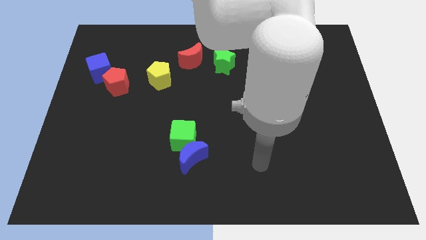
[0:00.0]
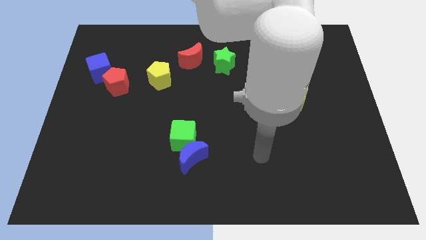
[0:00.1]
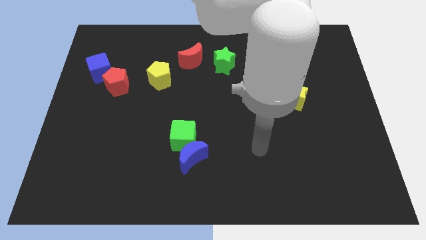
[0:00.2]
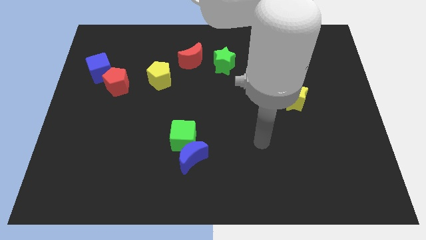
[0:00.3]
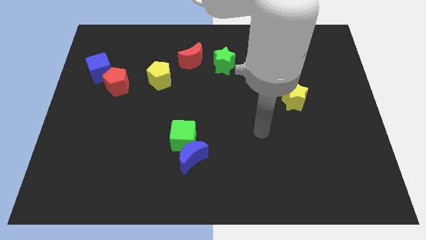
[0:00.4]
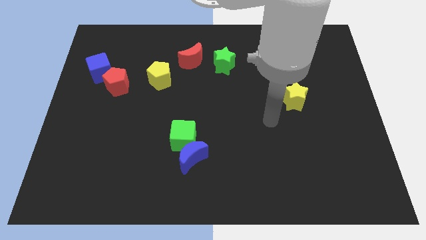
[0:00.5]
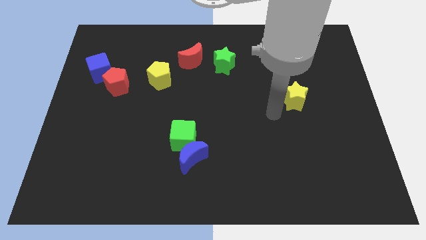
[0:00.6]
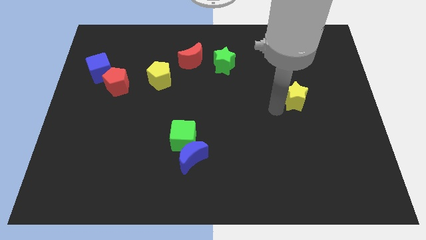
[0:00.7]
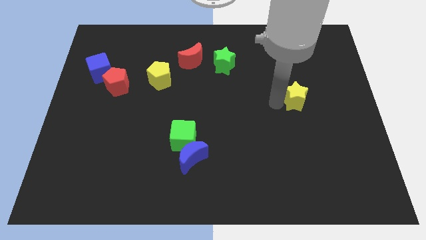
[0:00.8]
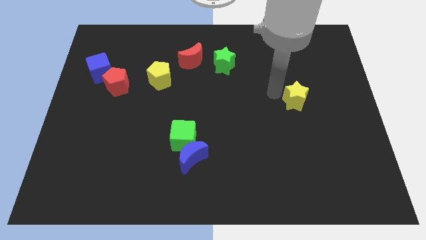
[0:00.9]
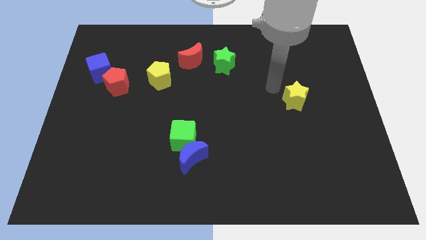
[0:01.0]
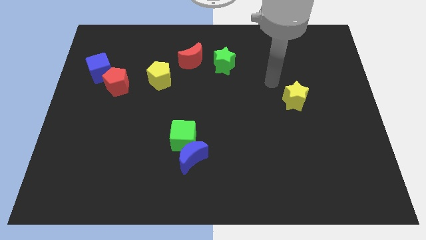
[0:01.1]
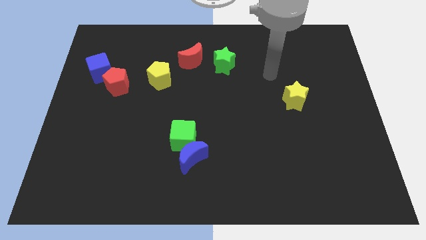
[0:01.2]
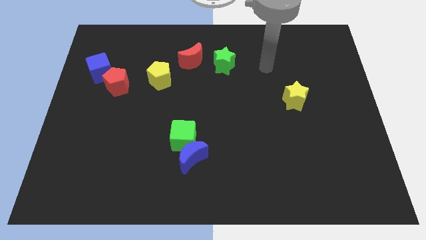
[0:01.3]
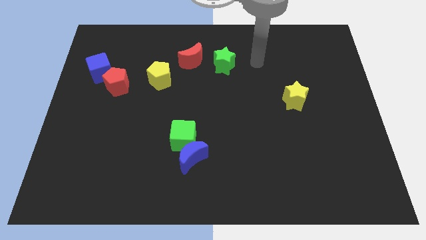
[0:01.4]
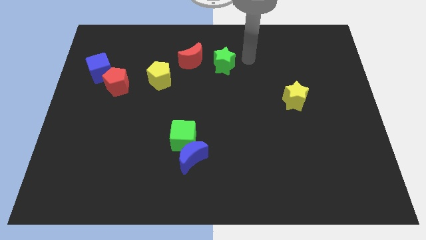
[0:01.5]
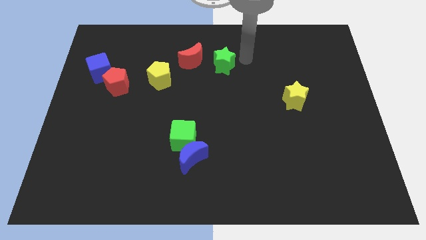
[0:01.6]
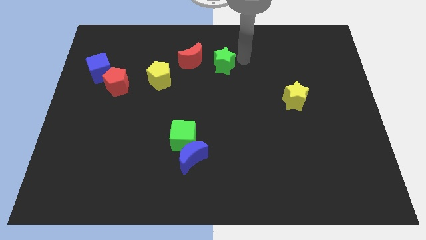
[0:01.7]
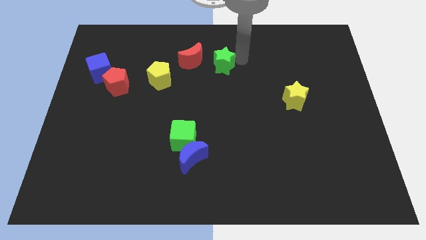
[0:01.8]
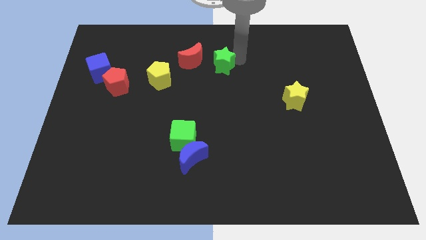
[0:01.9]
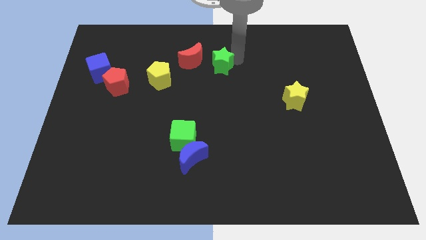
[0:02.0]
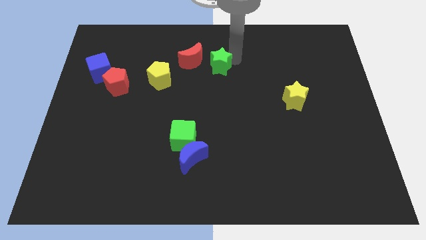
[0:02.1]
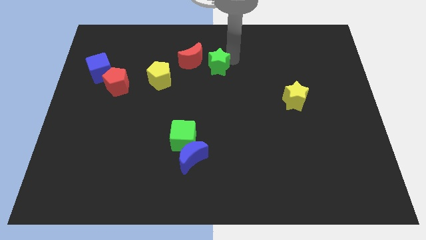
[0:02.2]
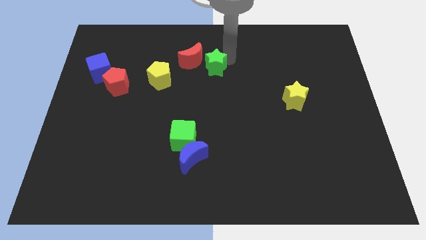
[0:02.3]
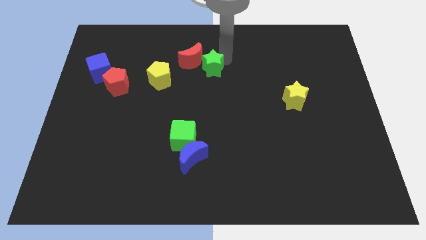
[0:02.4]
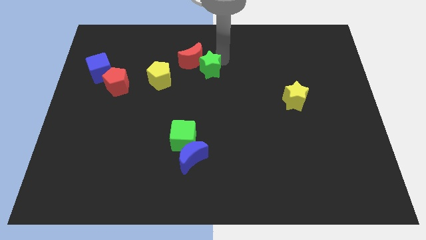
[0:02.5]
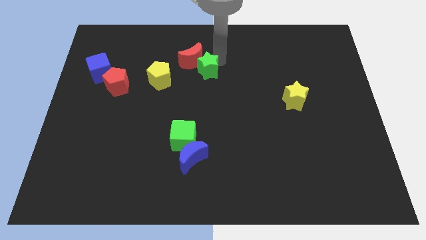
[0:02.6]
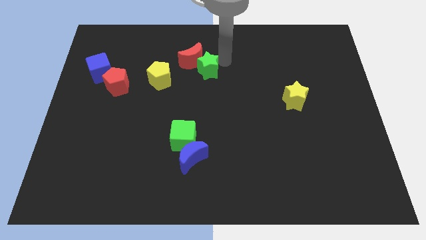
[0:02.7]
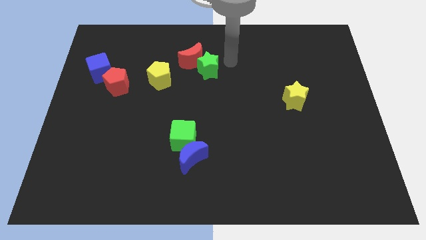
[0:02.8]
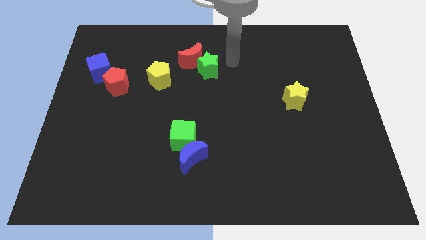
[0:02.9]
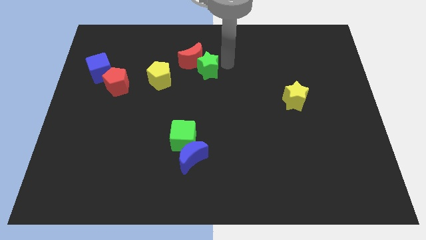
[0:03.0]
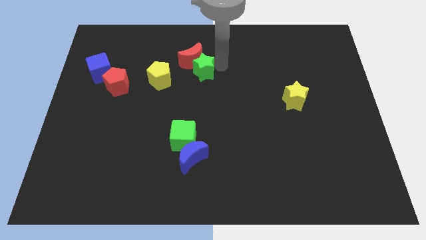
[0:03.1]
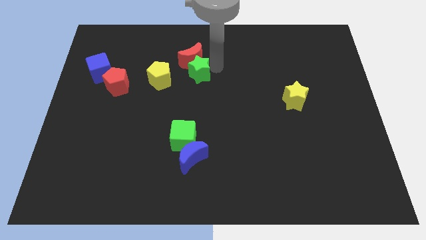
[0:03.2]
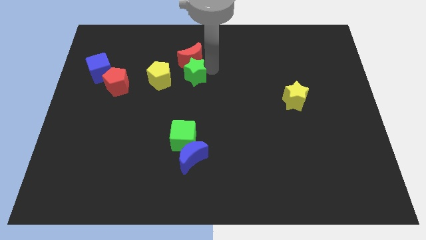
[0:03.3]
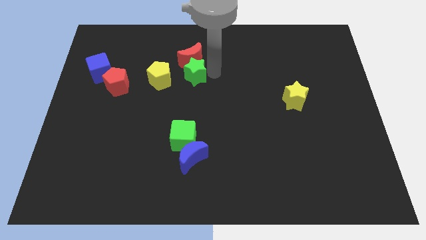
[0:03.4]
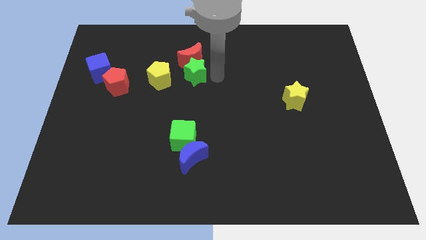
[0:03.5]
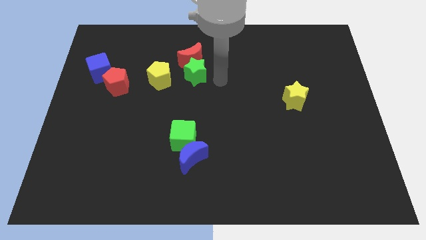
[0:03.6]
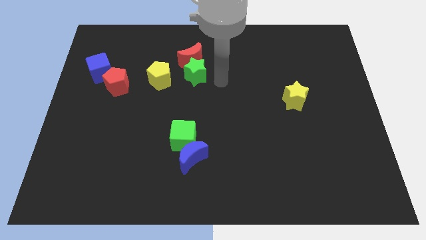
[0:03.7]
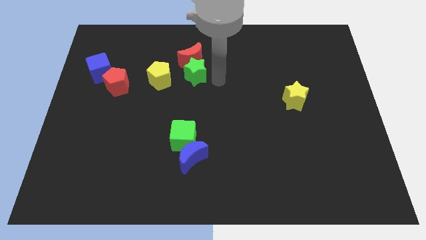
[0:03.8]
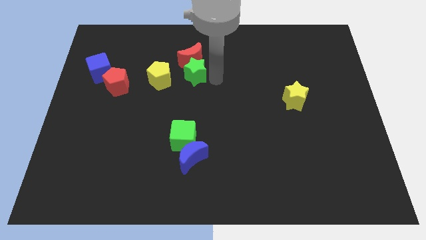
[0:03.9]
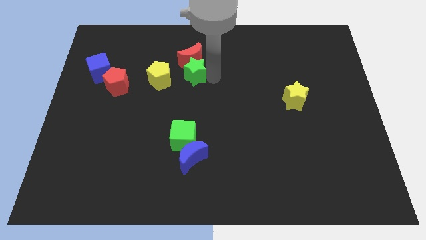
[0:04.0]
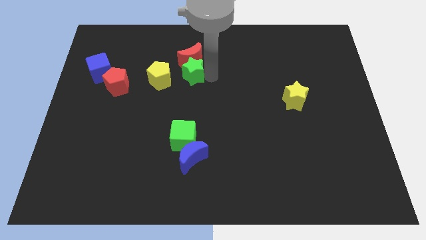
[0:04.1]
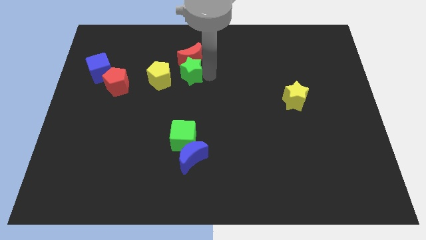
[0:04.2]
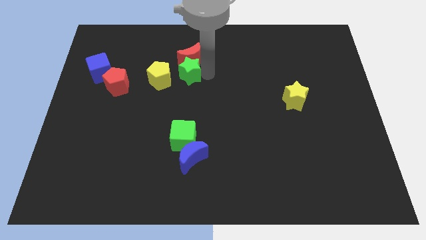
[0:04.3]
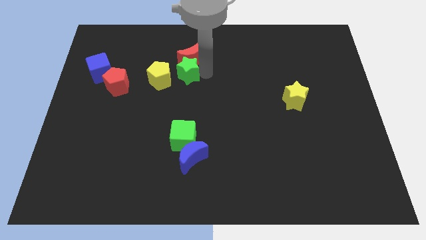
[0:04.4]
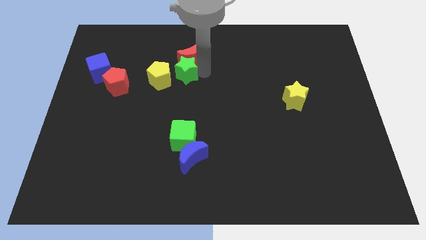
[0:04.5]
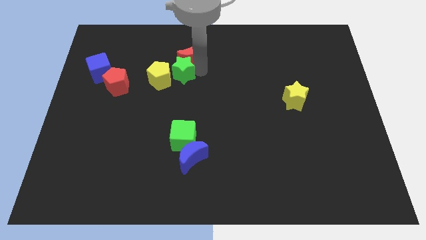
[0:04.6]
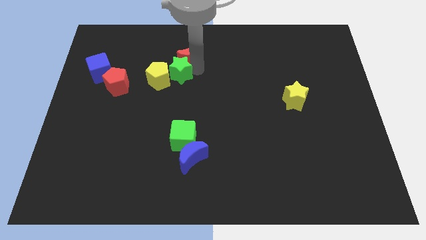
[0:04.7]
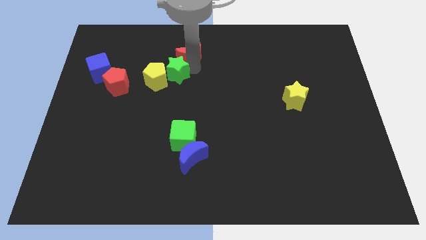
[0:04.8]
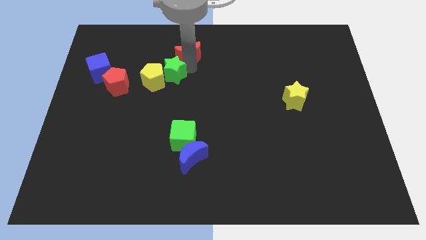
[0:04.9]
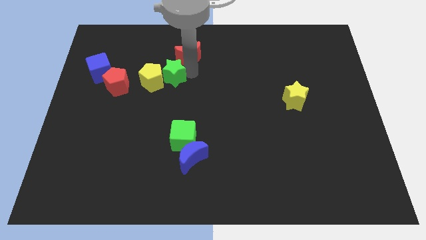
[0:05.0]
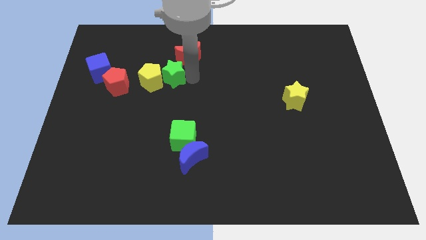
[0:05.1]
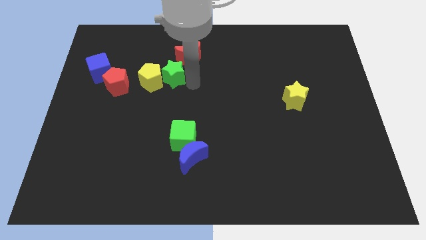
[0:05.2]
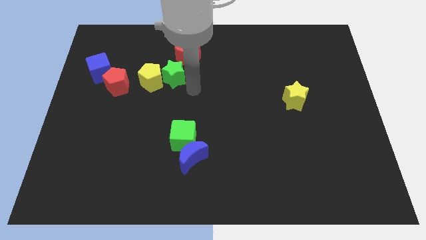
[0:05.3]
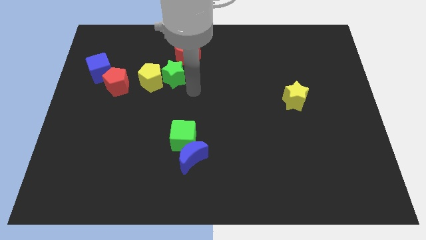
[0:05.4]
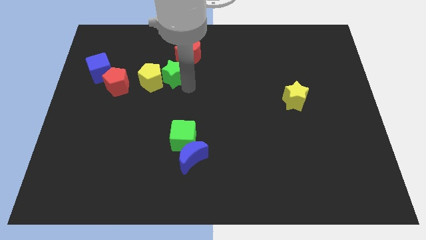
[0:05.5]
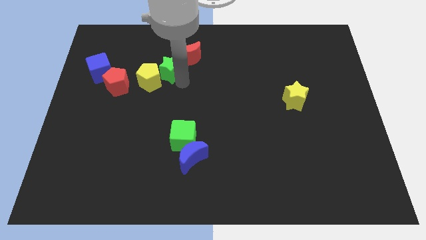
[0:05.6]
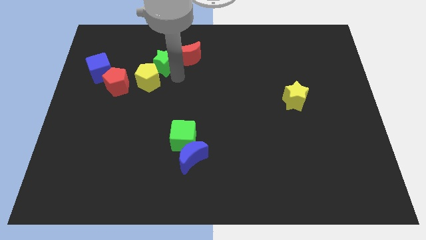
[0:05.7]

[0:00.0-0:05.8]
move the green star to the left of the red moon

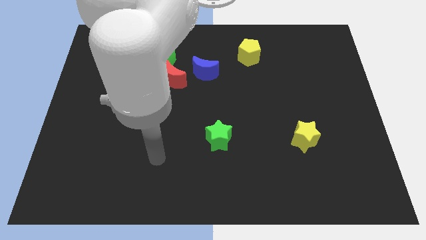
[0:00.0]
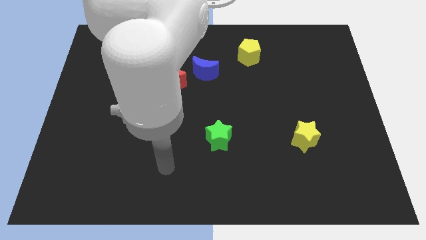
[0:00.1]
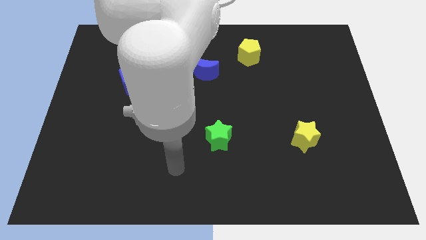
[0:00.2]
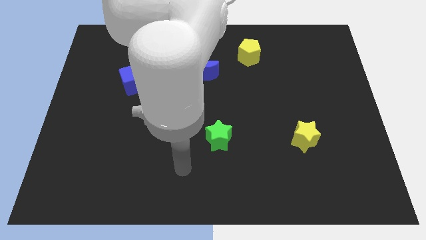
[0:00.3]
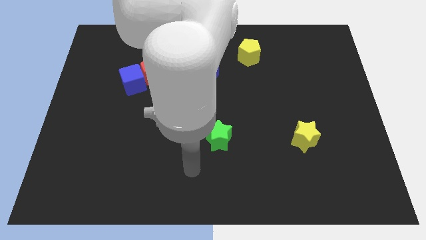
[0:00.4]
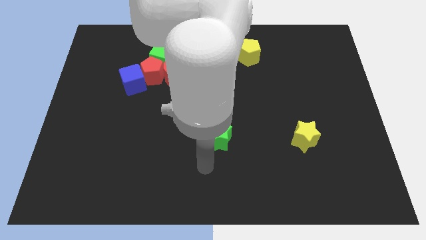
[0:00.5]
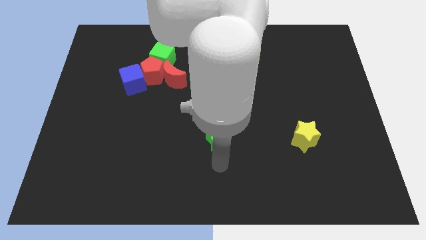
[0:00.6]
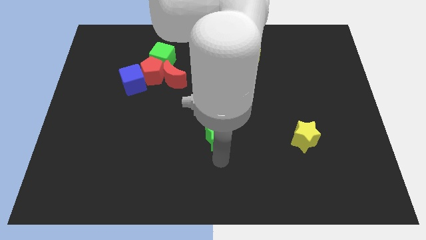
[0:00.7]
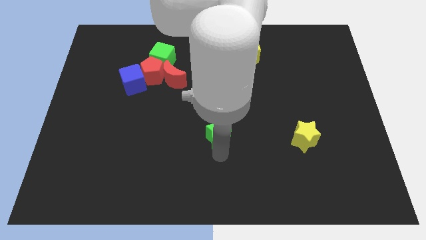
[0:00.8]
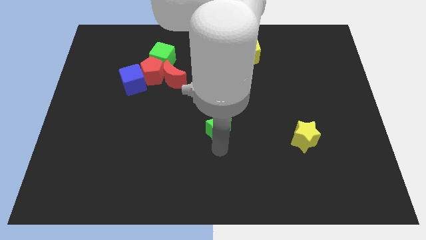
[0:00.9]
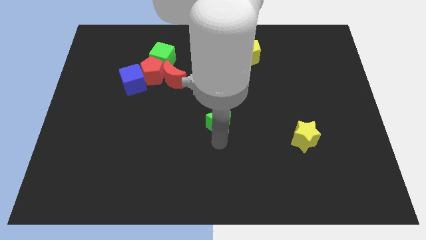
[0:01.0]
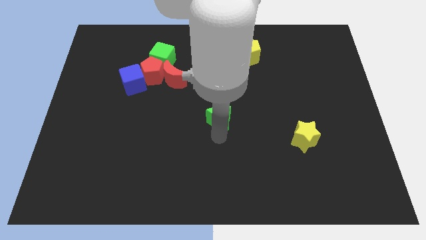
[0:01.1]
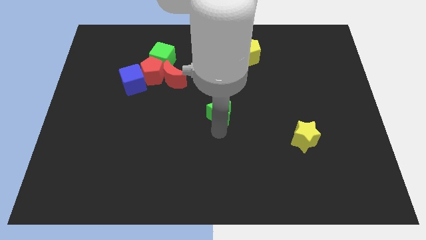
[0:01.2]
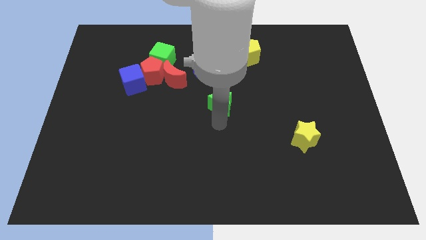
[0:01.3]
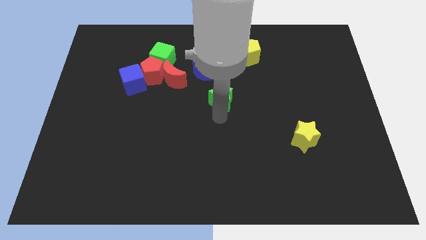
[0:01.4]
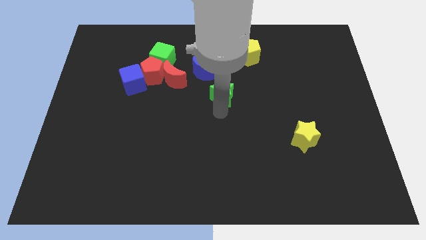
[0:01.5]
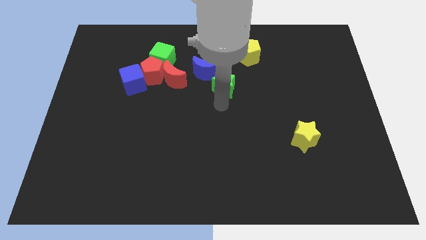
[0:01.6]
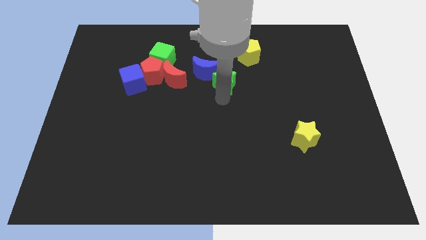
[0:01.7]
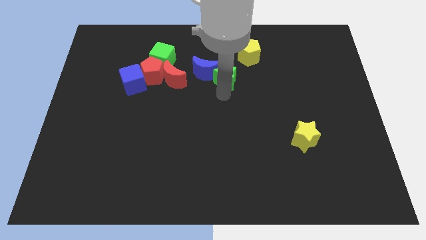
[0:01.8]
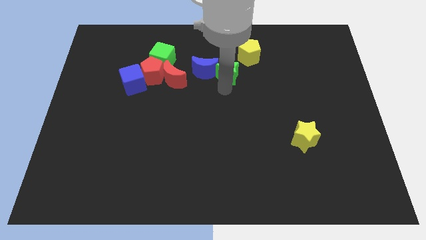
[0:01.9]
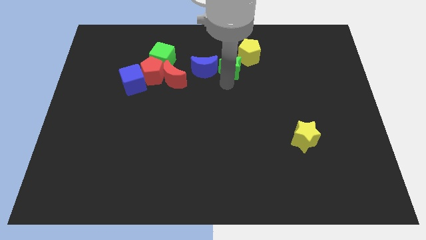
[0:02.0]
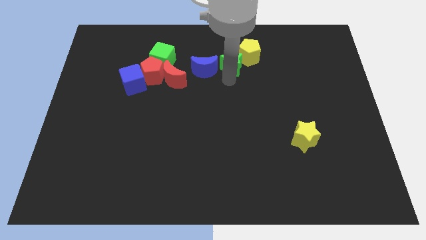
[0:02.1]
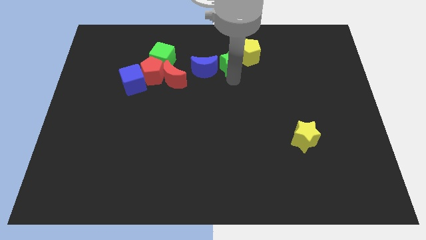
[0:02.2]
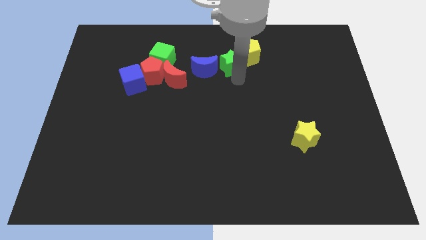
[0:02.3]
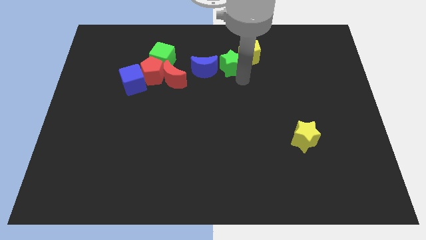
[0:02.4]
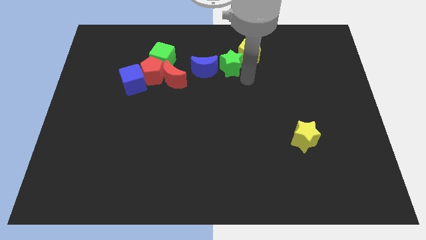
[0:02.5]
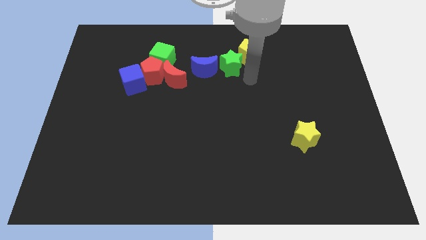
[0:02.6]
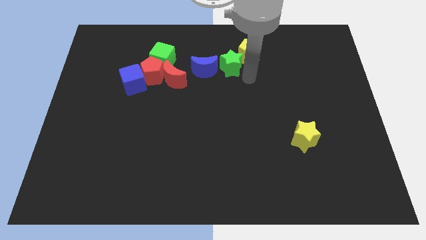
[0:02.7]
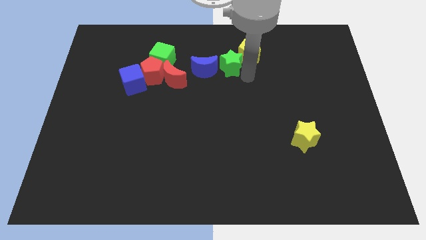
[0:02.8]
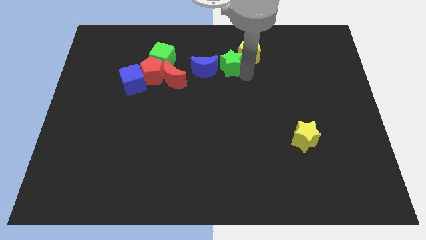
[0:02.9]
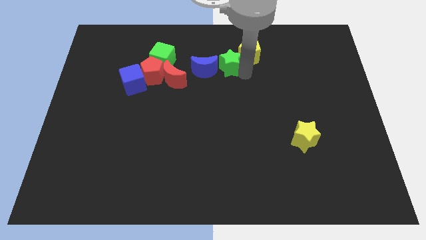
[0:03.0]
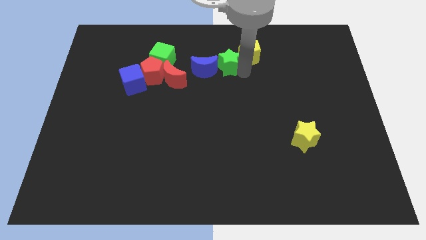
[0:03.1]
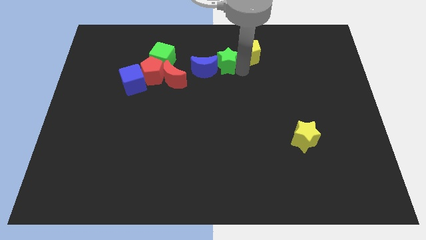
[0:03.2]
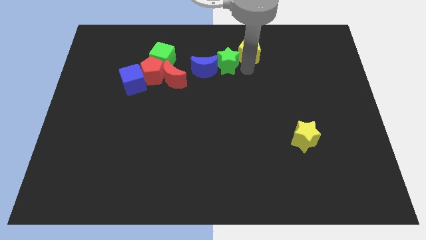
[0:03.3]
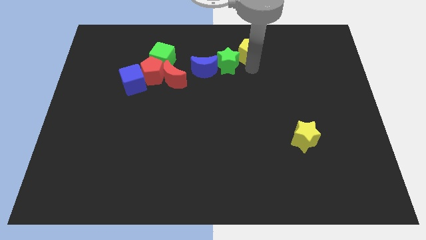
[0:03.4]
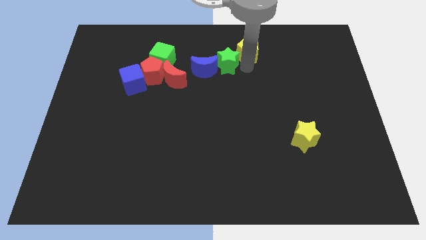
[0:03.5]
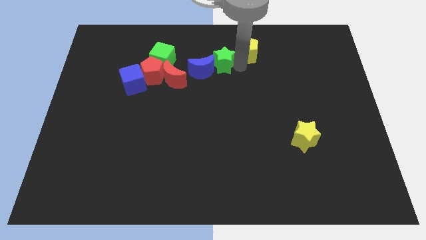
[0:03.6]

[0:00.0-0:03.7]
push the green star just right of the green cube
